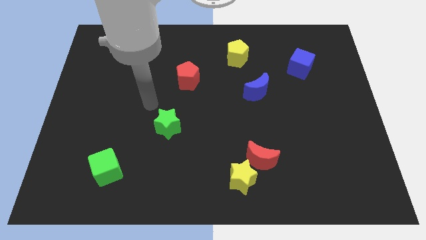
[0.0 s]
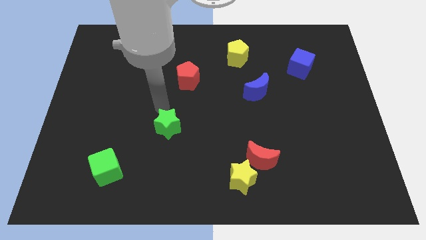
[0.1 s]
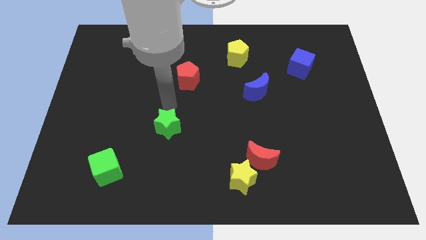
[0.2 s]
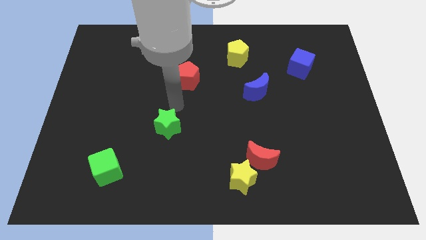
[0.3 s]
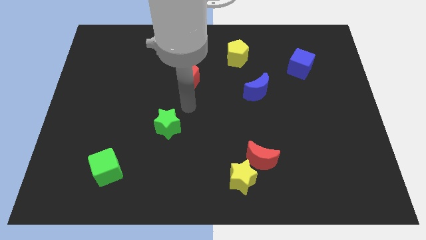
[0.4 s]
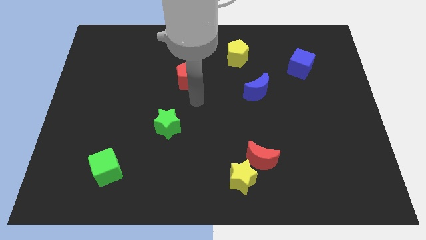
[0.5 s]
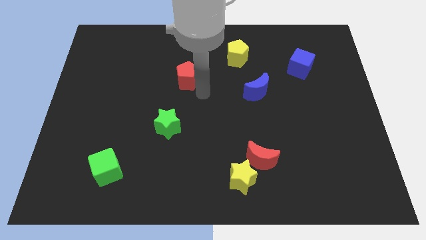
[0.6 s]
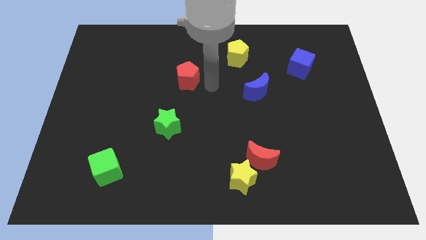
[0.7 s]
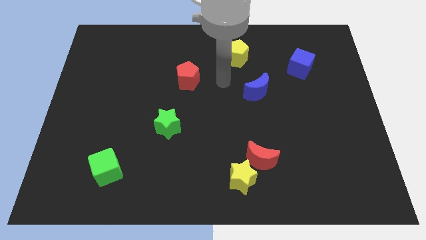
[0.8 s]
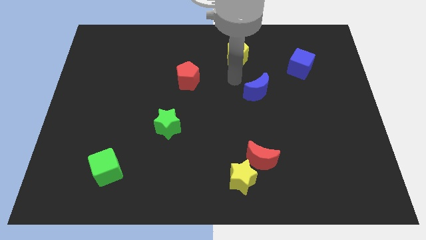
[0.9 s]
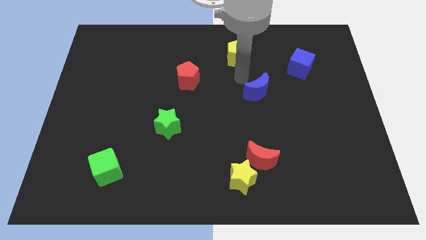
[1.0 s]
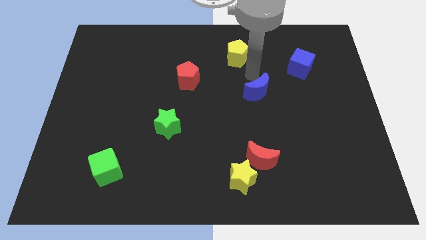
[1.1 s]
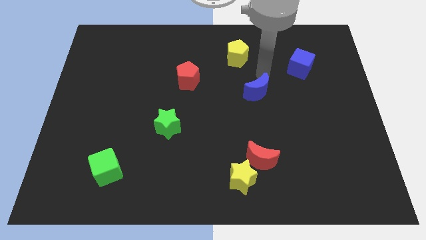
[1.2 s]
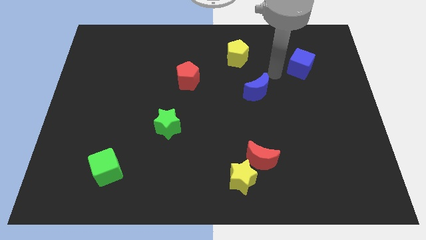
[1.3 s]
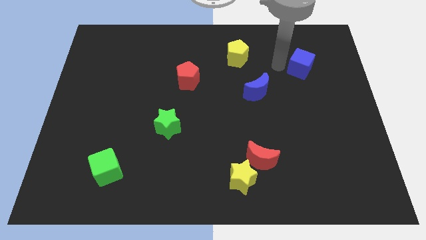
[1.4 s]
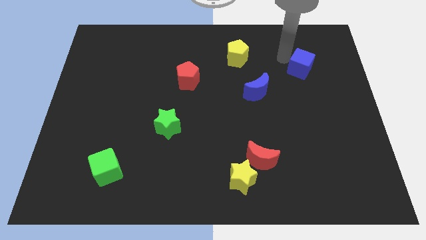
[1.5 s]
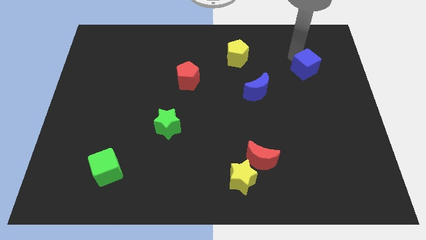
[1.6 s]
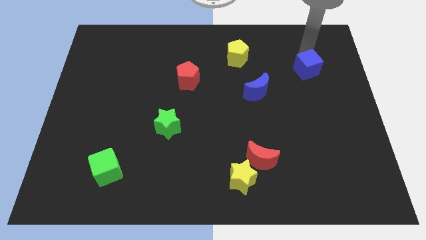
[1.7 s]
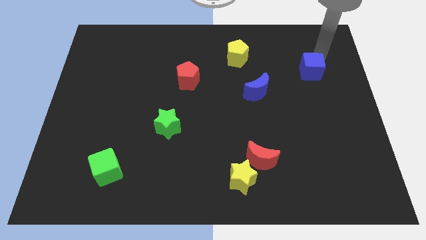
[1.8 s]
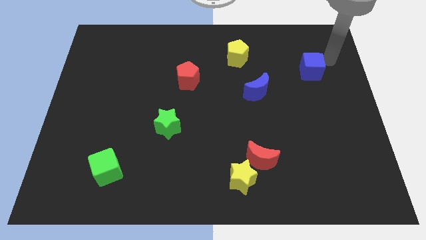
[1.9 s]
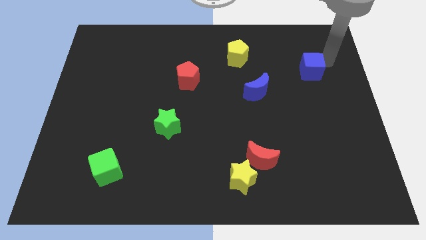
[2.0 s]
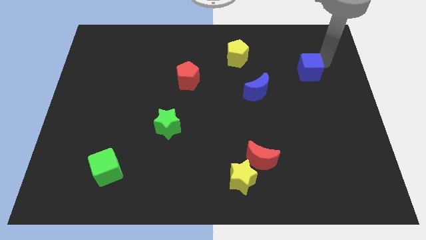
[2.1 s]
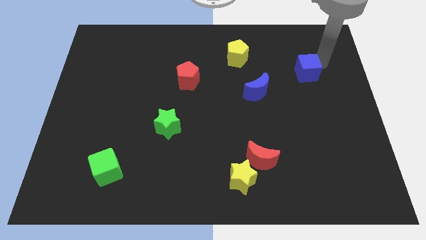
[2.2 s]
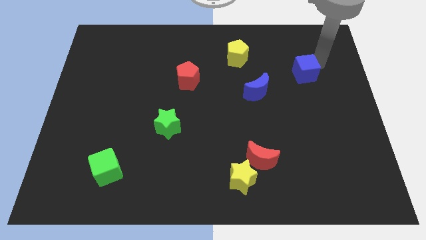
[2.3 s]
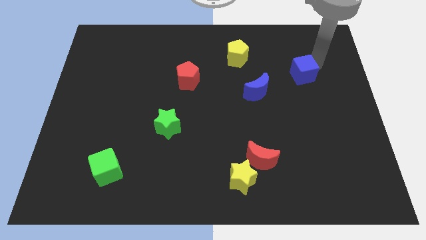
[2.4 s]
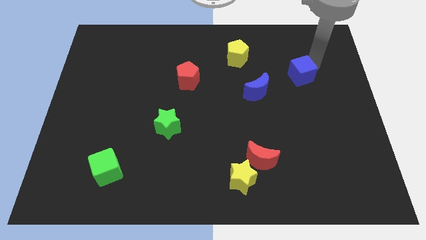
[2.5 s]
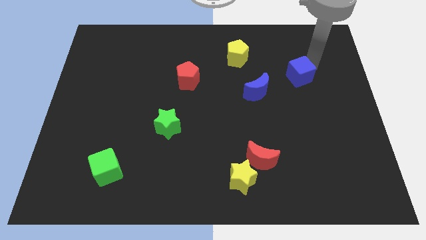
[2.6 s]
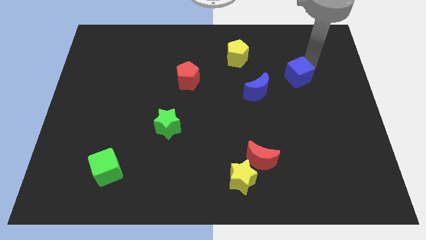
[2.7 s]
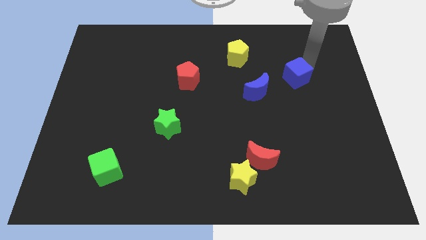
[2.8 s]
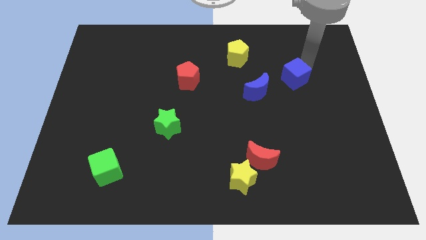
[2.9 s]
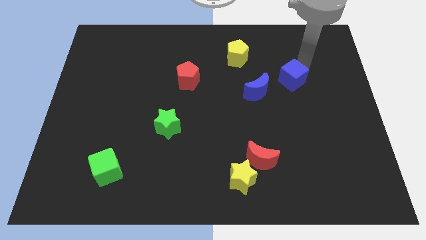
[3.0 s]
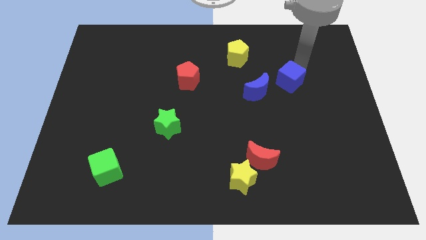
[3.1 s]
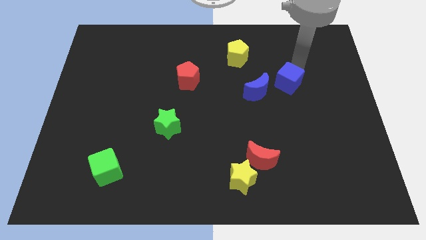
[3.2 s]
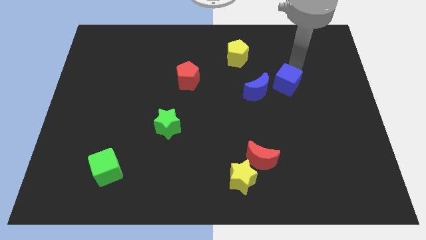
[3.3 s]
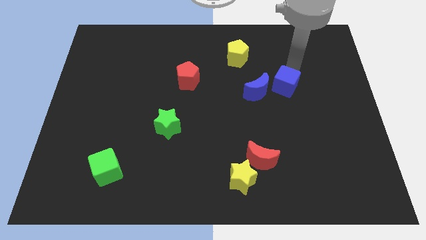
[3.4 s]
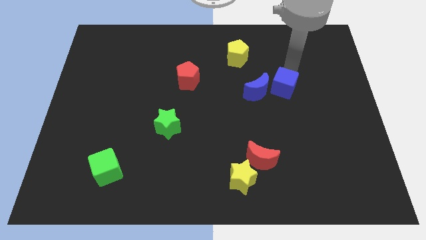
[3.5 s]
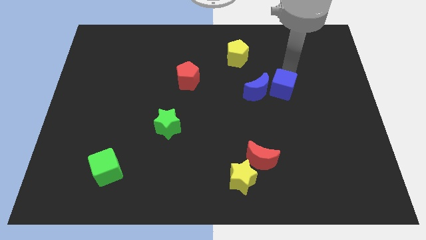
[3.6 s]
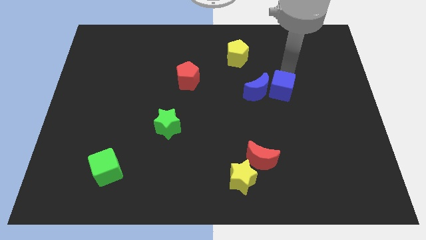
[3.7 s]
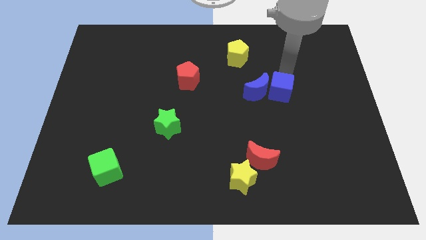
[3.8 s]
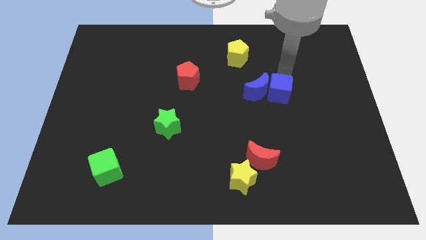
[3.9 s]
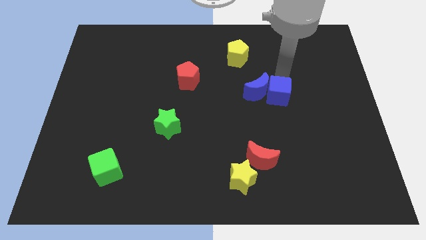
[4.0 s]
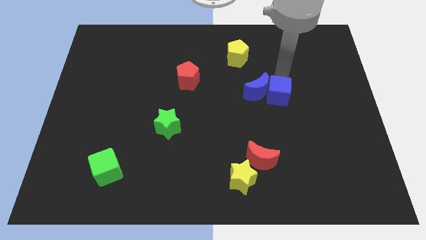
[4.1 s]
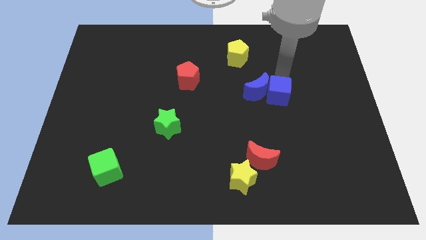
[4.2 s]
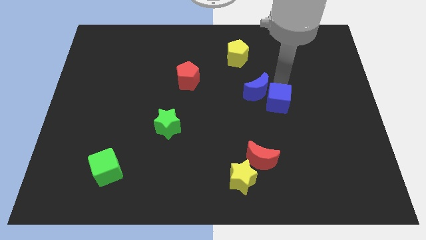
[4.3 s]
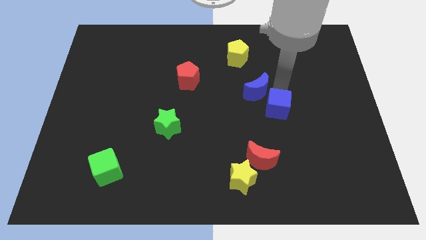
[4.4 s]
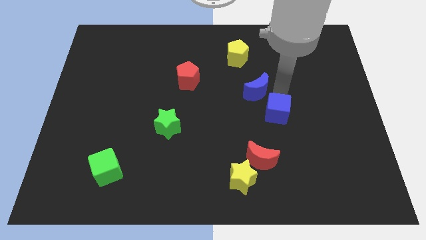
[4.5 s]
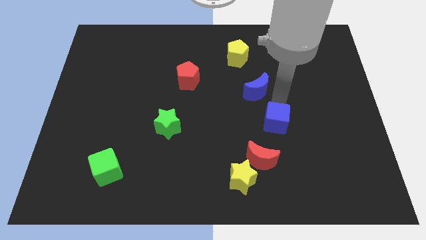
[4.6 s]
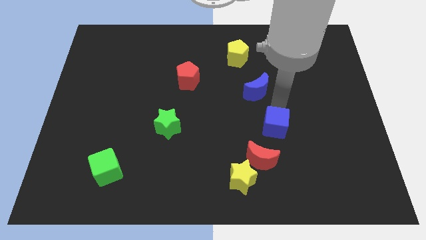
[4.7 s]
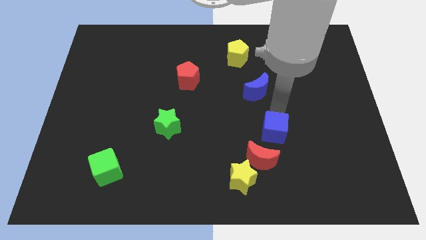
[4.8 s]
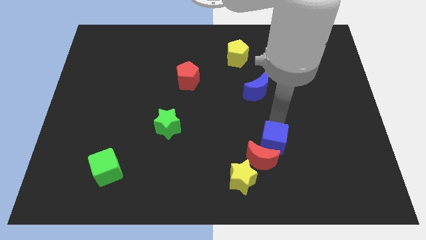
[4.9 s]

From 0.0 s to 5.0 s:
slide the blue cube to the red moon

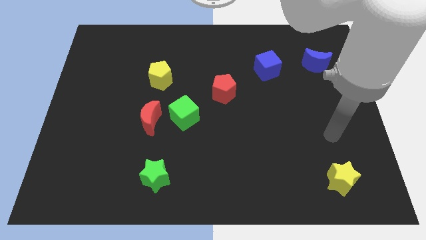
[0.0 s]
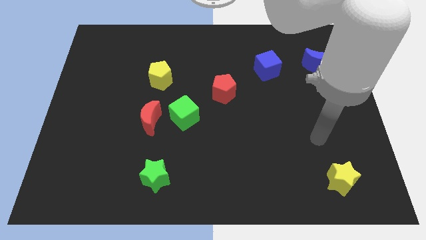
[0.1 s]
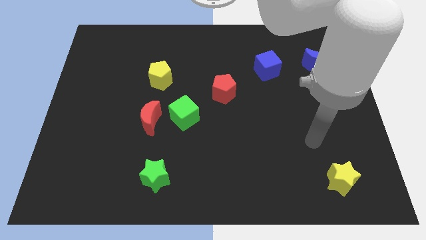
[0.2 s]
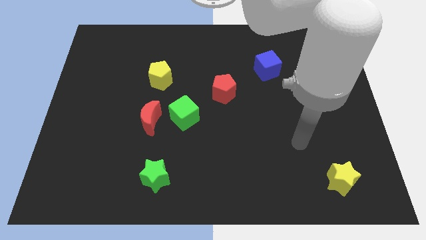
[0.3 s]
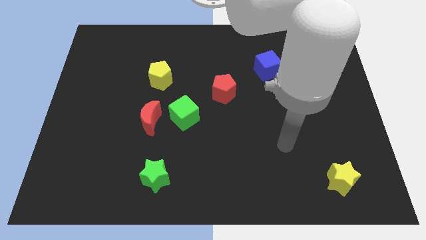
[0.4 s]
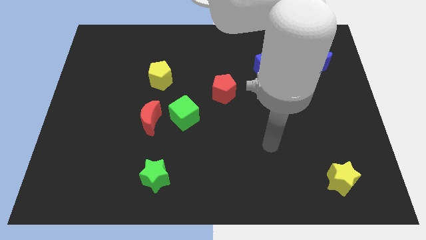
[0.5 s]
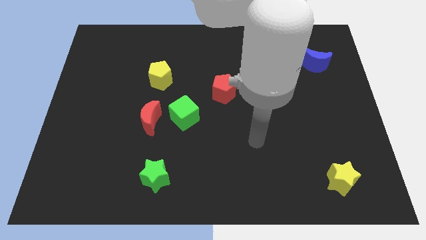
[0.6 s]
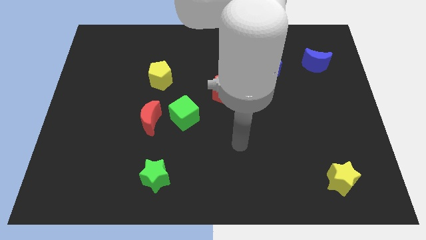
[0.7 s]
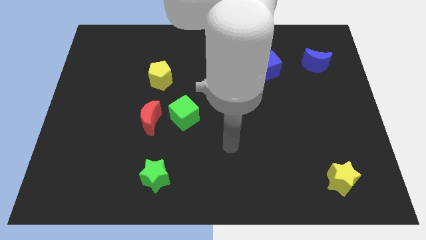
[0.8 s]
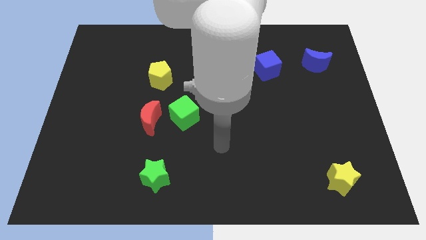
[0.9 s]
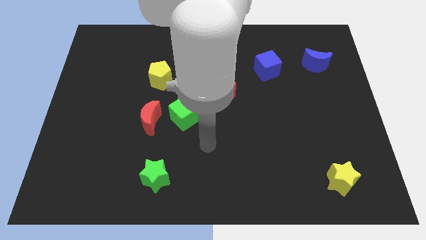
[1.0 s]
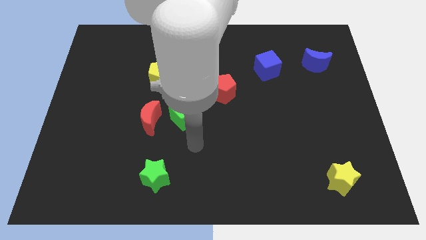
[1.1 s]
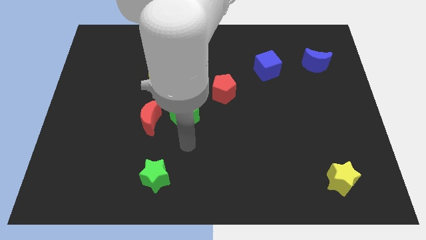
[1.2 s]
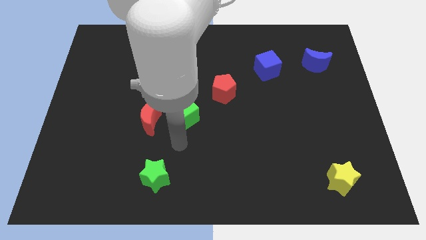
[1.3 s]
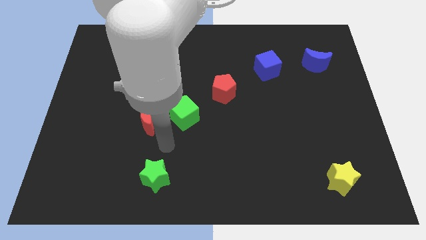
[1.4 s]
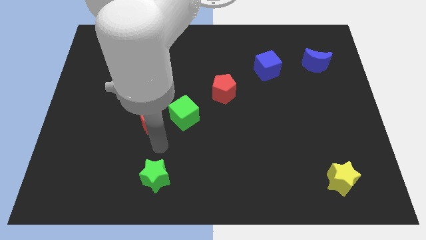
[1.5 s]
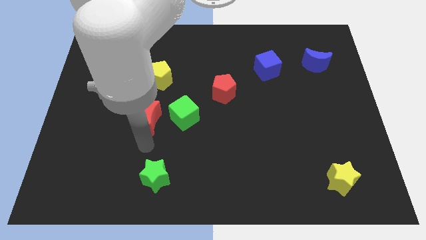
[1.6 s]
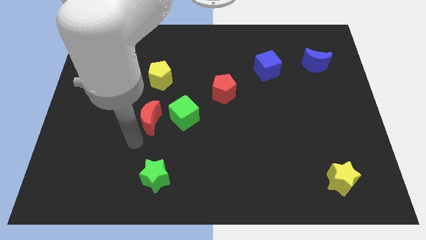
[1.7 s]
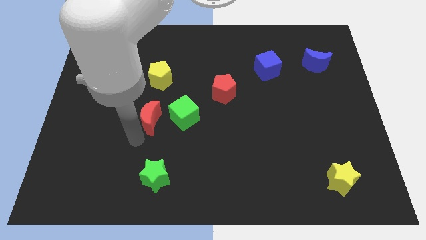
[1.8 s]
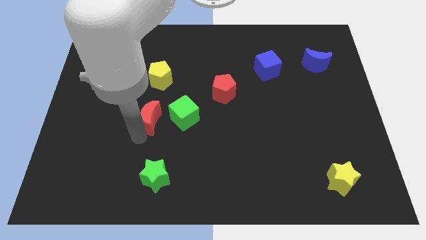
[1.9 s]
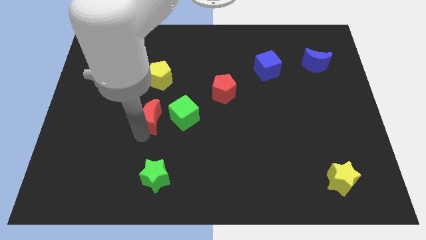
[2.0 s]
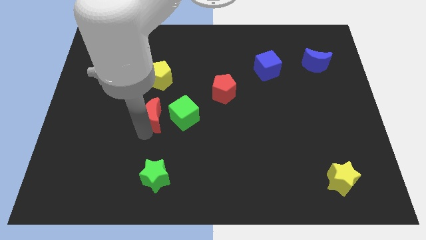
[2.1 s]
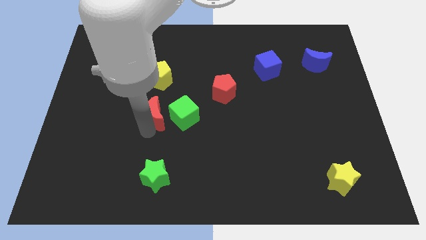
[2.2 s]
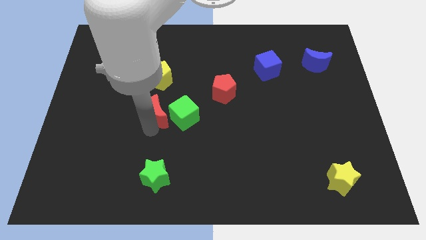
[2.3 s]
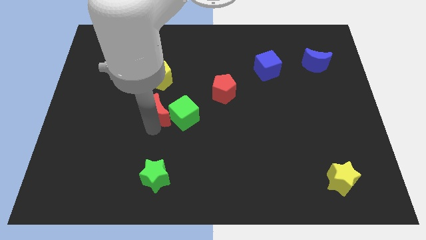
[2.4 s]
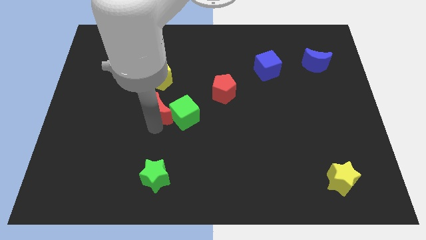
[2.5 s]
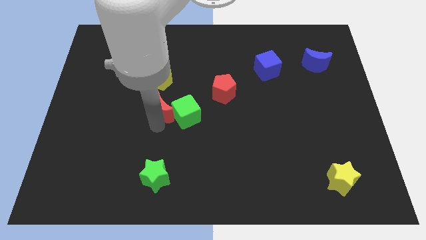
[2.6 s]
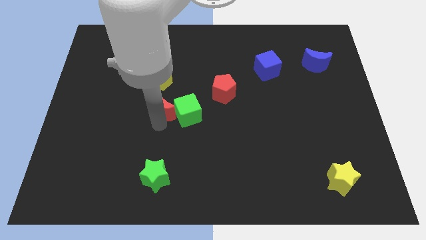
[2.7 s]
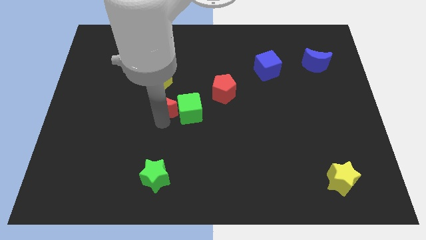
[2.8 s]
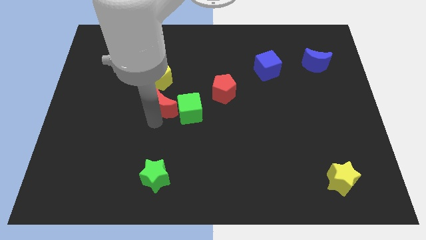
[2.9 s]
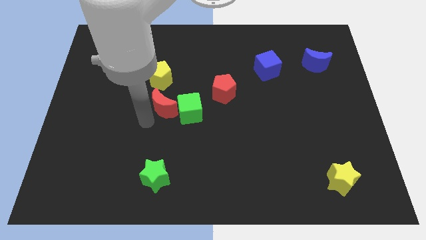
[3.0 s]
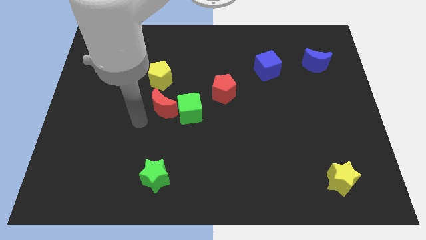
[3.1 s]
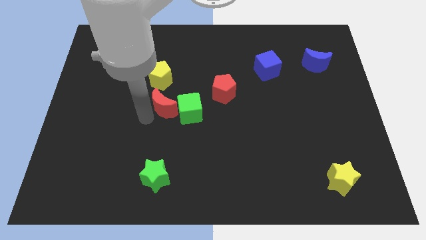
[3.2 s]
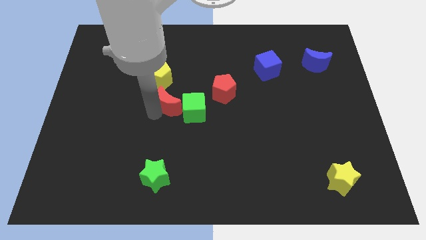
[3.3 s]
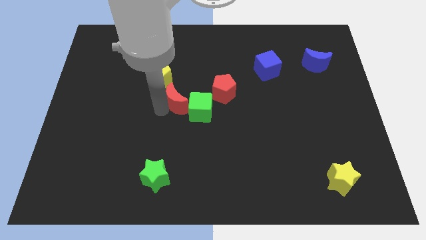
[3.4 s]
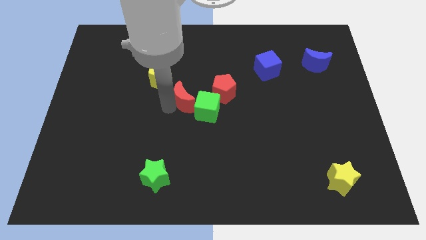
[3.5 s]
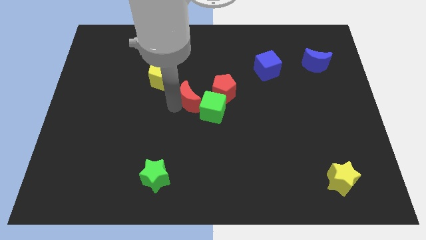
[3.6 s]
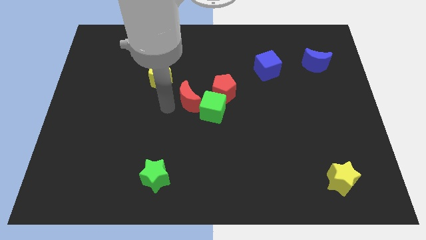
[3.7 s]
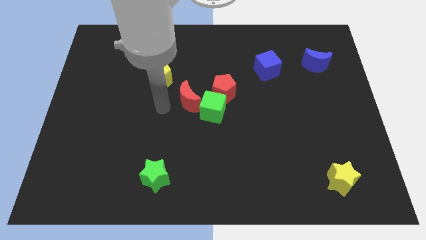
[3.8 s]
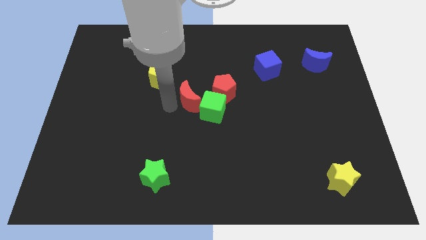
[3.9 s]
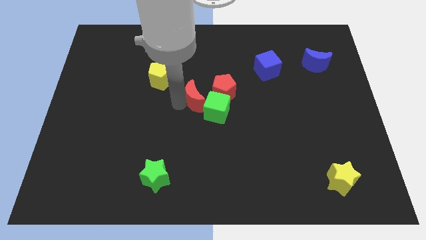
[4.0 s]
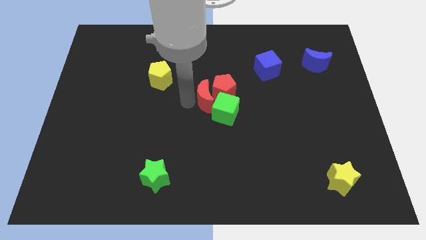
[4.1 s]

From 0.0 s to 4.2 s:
put the red moon next to the red pentagon
